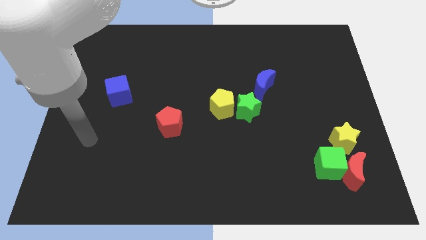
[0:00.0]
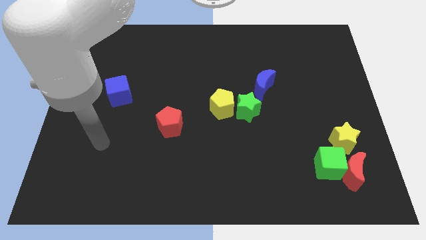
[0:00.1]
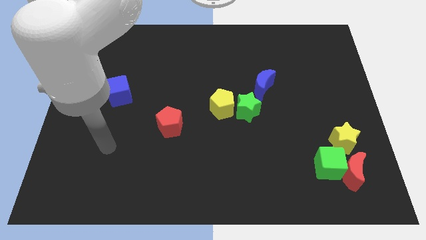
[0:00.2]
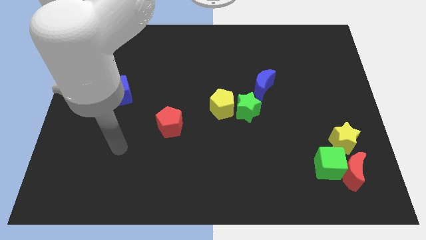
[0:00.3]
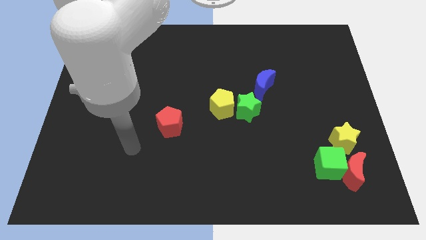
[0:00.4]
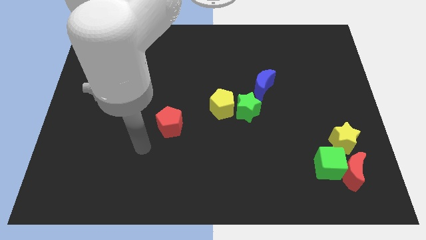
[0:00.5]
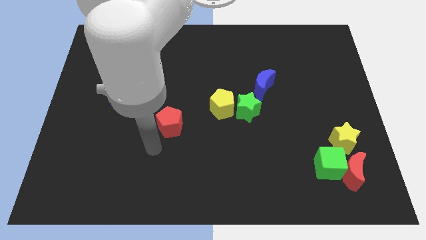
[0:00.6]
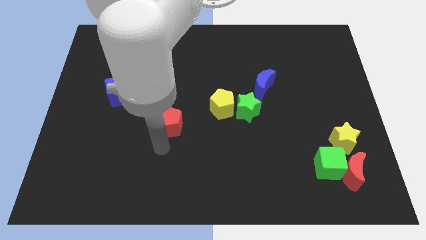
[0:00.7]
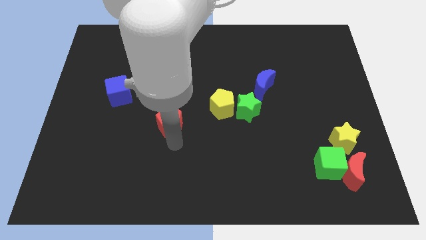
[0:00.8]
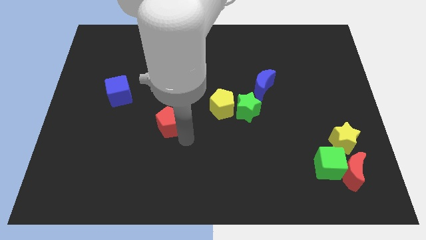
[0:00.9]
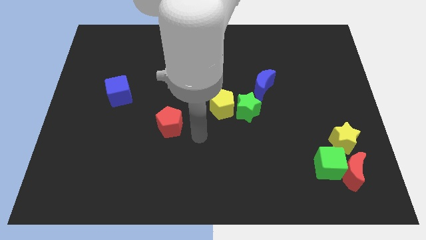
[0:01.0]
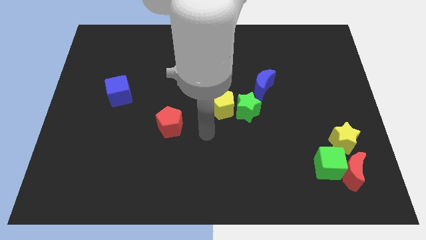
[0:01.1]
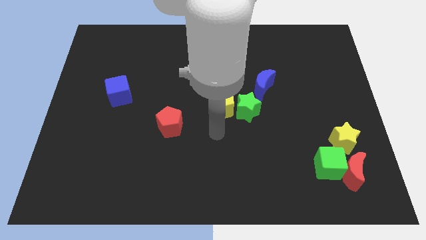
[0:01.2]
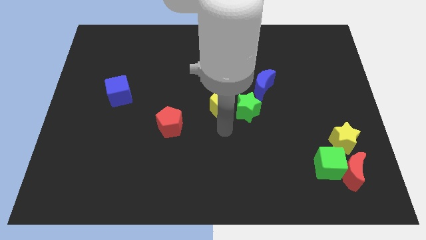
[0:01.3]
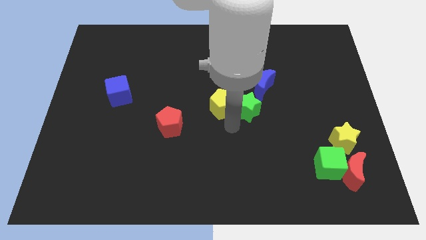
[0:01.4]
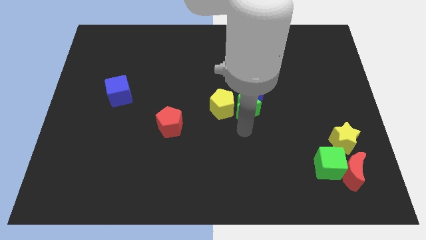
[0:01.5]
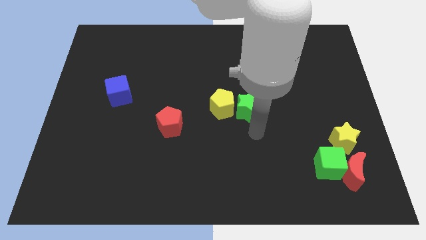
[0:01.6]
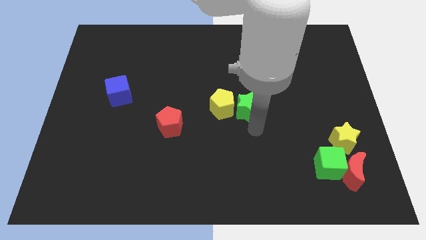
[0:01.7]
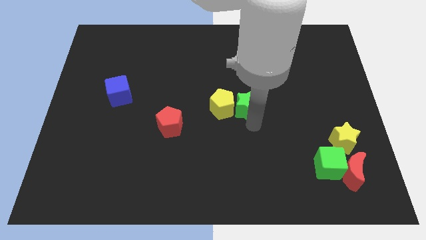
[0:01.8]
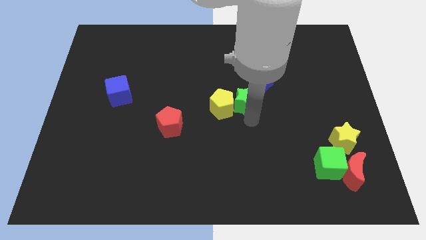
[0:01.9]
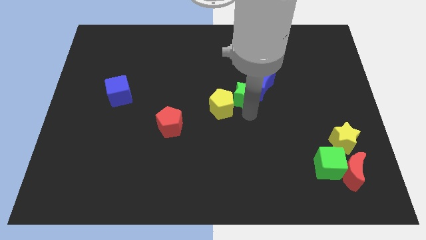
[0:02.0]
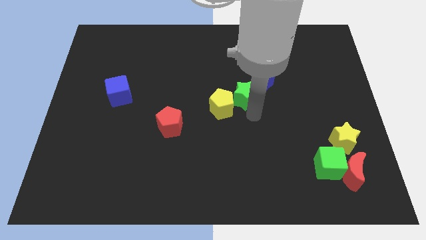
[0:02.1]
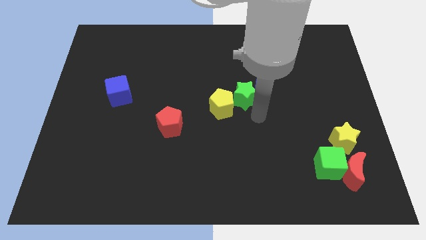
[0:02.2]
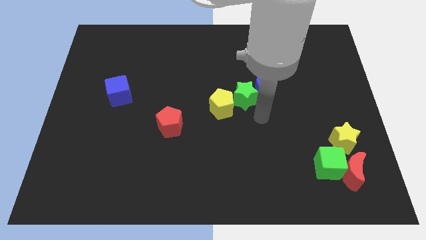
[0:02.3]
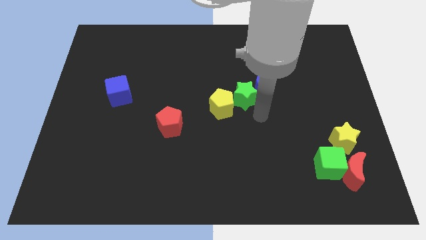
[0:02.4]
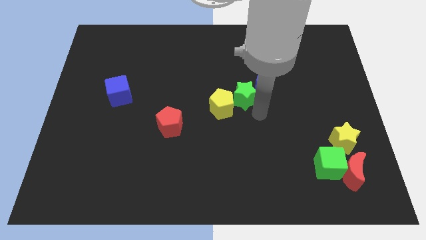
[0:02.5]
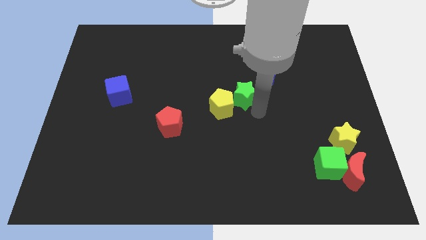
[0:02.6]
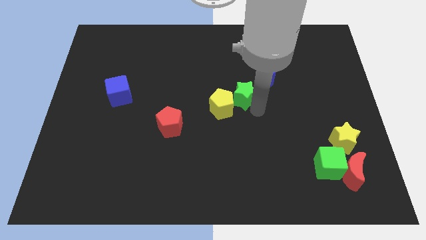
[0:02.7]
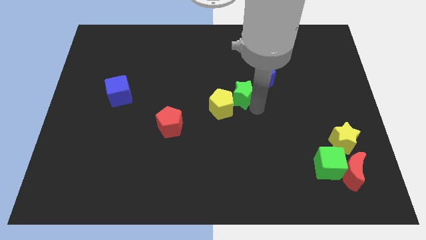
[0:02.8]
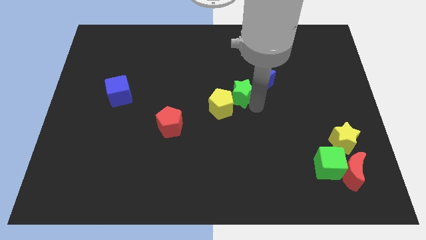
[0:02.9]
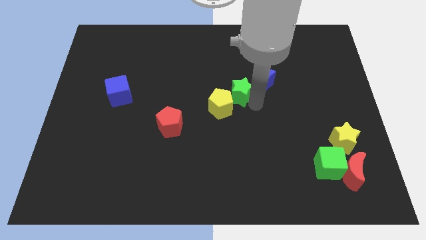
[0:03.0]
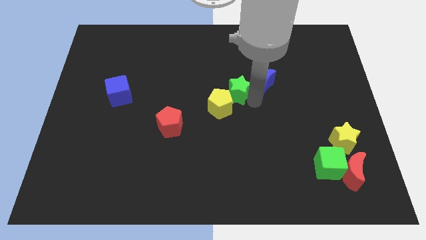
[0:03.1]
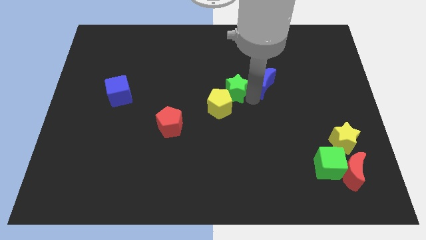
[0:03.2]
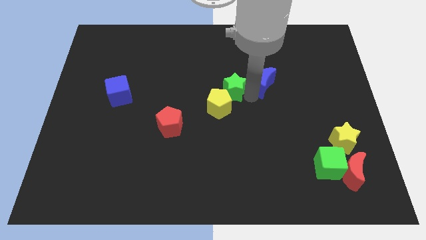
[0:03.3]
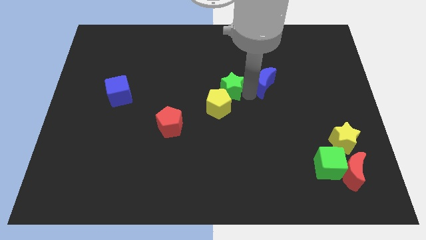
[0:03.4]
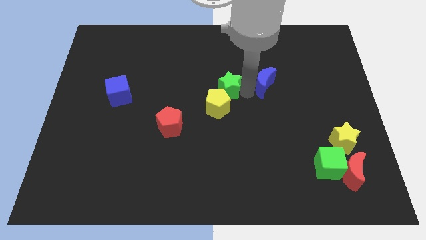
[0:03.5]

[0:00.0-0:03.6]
move the green star a little bit upwards and then left

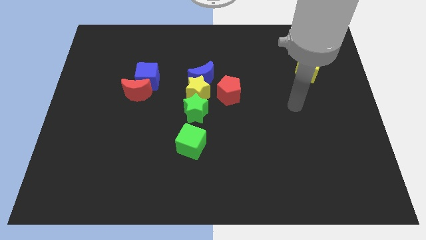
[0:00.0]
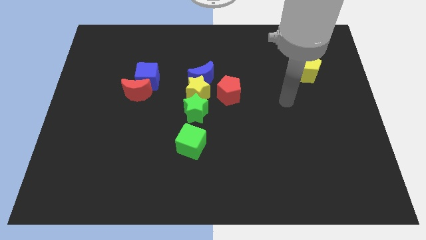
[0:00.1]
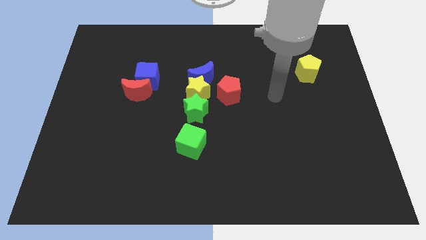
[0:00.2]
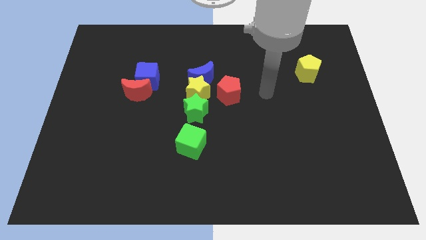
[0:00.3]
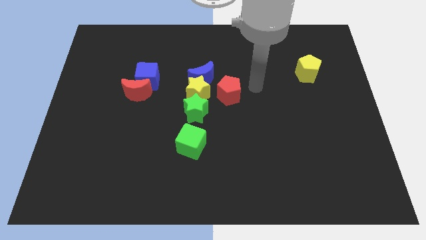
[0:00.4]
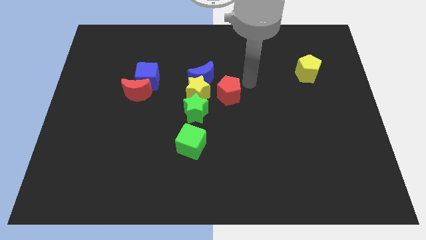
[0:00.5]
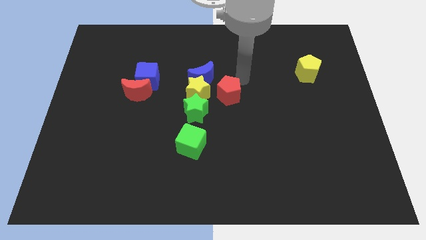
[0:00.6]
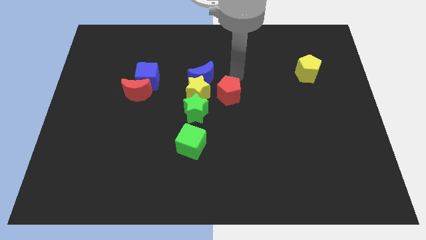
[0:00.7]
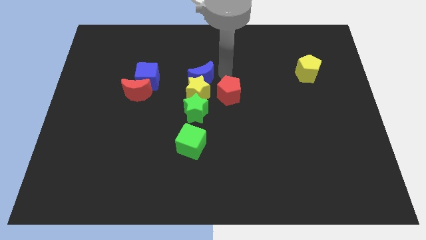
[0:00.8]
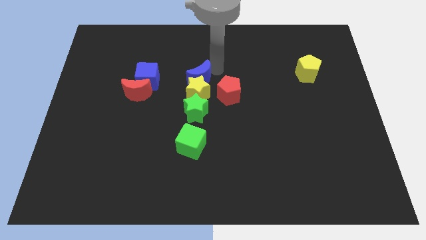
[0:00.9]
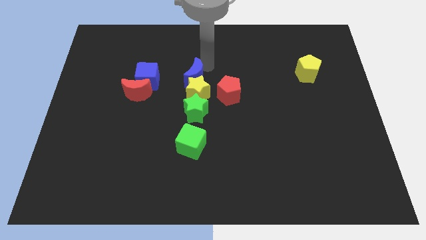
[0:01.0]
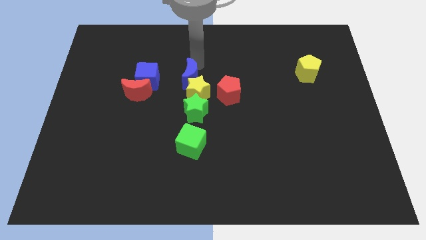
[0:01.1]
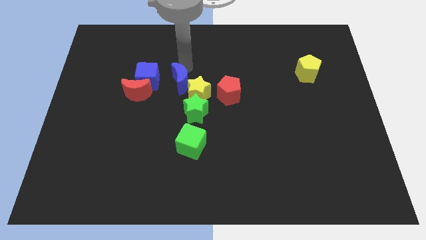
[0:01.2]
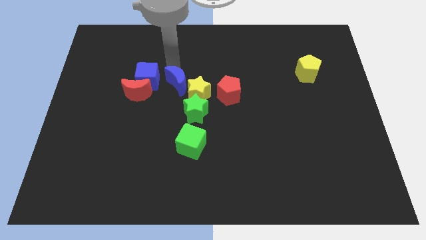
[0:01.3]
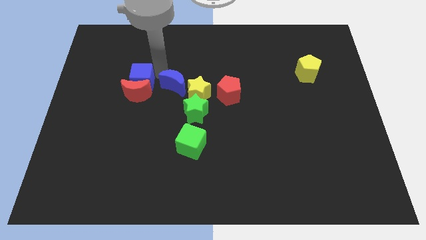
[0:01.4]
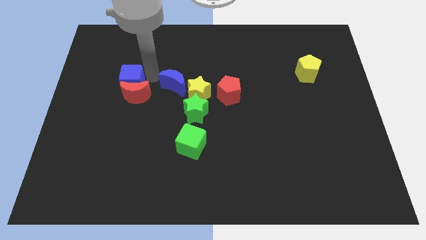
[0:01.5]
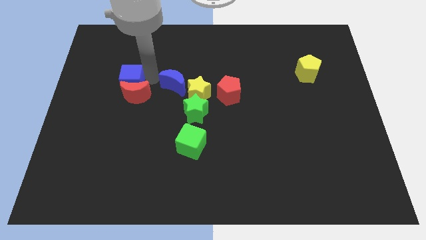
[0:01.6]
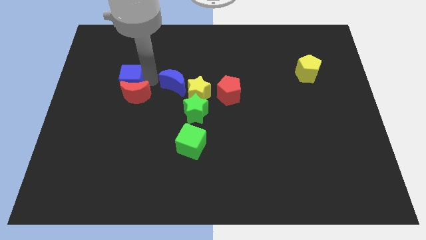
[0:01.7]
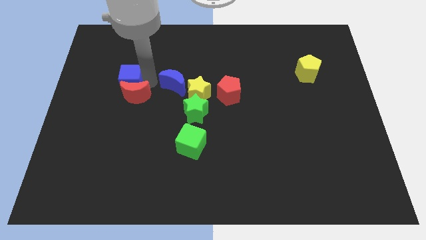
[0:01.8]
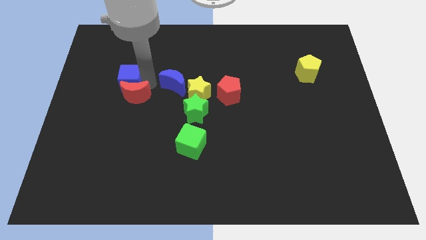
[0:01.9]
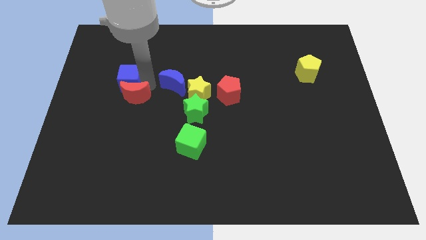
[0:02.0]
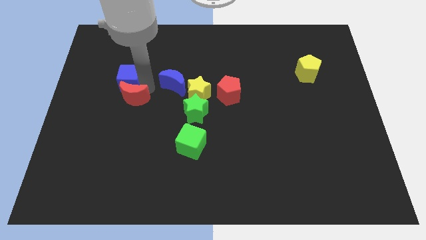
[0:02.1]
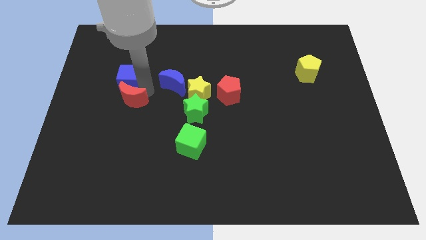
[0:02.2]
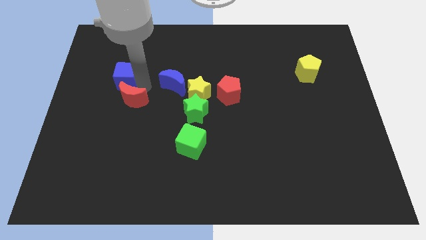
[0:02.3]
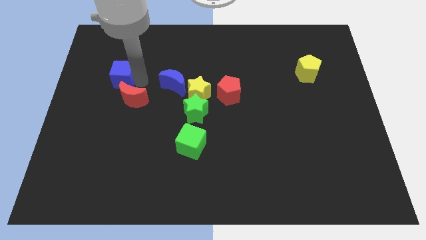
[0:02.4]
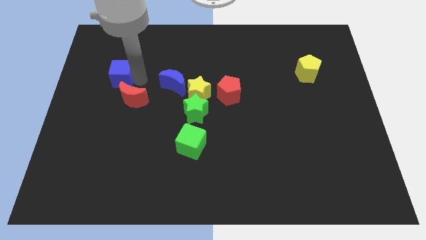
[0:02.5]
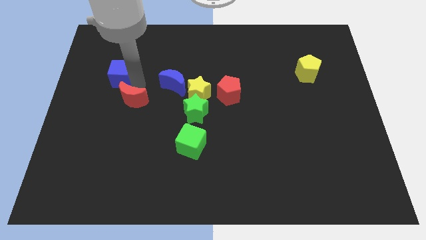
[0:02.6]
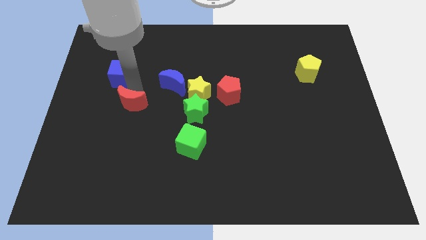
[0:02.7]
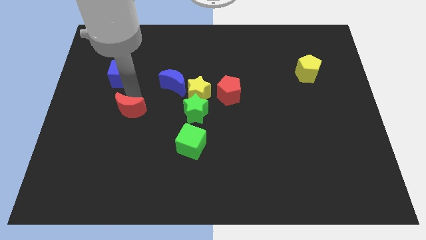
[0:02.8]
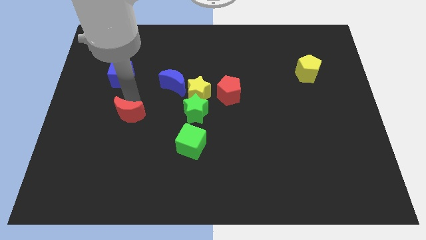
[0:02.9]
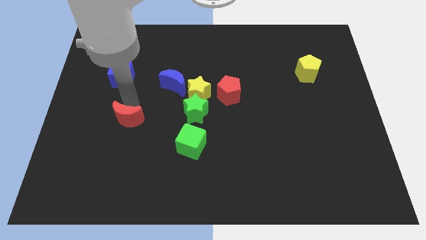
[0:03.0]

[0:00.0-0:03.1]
move the red moon downwards a little bit

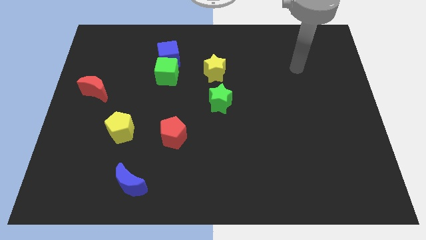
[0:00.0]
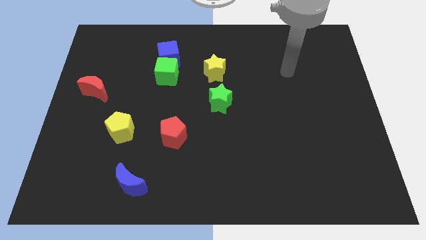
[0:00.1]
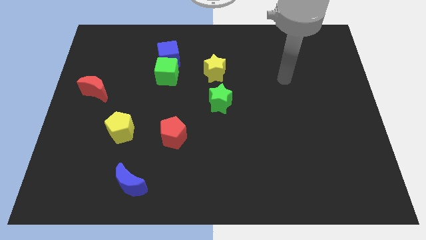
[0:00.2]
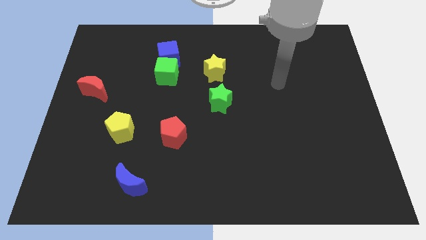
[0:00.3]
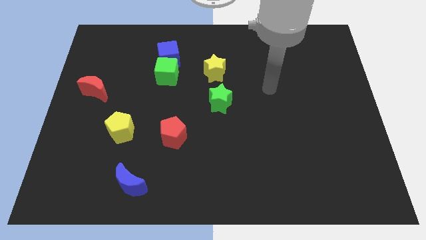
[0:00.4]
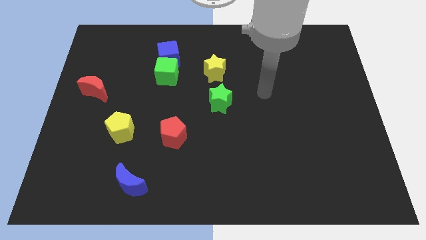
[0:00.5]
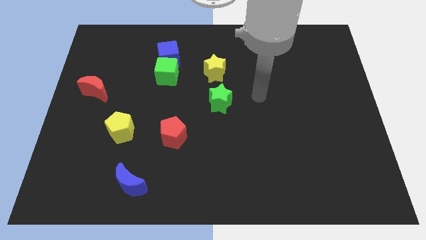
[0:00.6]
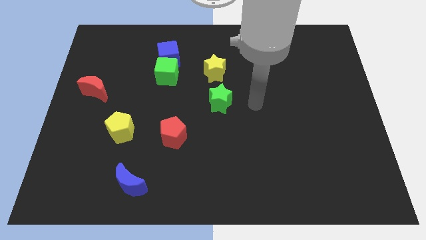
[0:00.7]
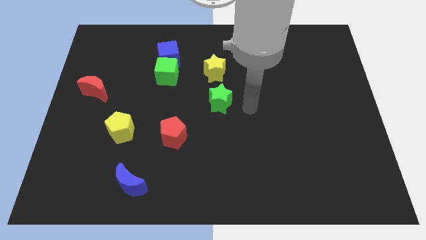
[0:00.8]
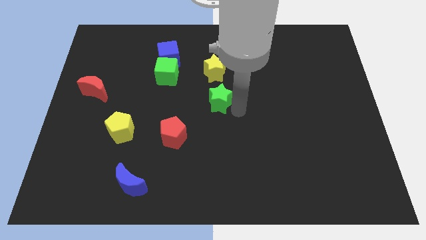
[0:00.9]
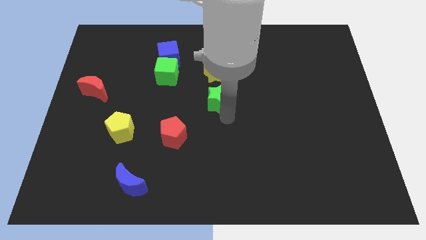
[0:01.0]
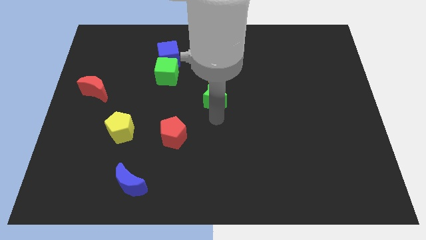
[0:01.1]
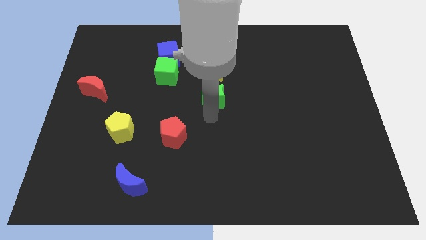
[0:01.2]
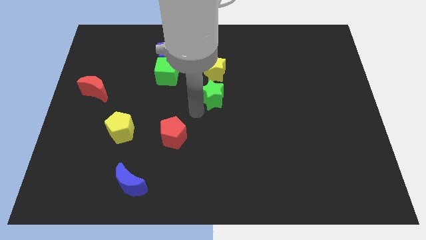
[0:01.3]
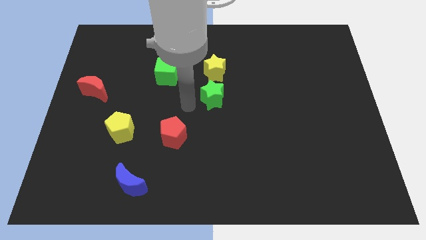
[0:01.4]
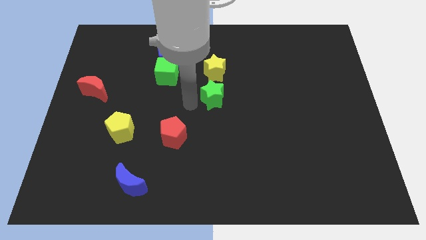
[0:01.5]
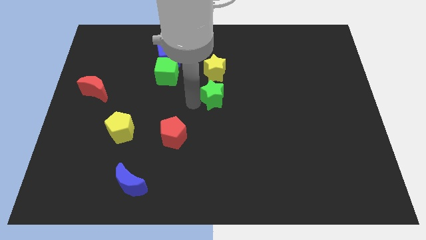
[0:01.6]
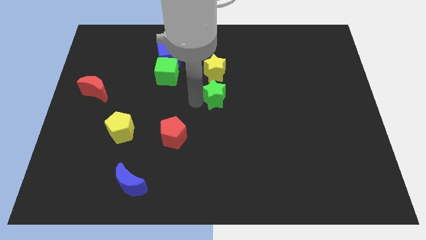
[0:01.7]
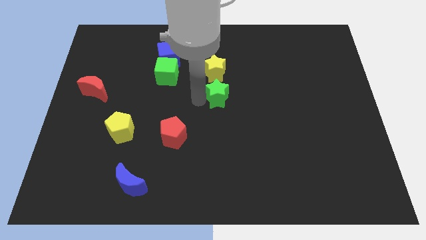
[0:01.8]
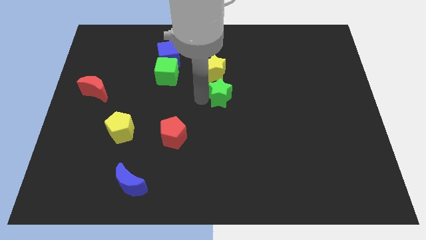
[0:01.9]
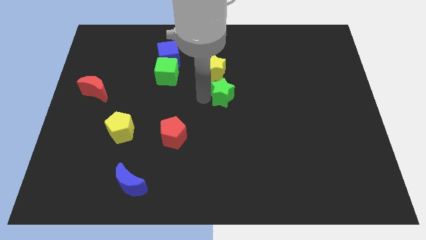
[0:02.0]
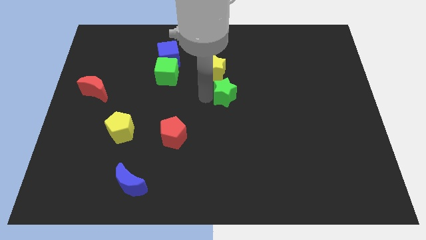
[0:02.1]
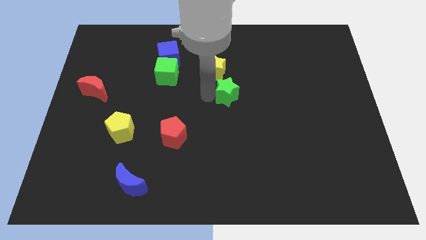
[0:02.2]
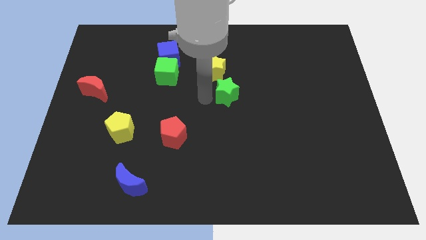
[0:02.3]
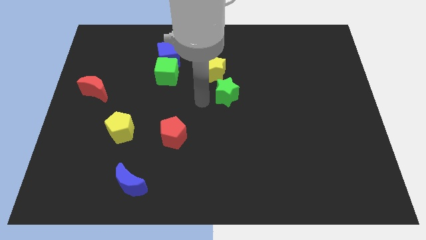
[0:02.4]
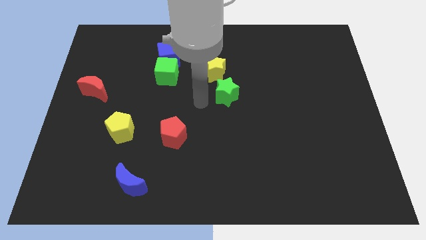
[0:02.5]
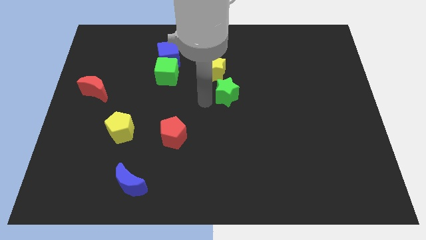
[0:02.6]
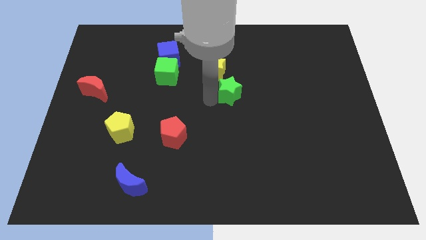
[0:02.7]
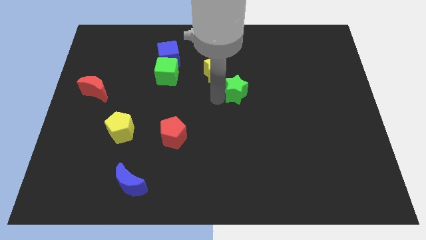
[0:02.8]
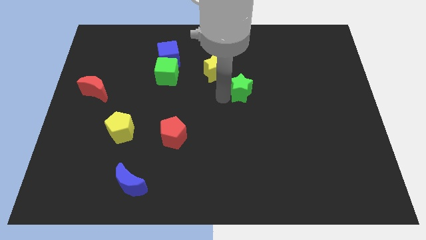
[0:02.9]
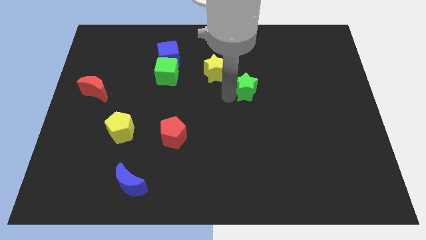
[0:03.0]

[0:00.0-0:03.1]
slightly slide the green star upwards and to the right diagonally
